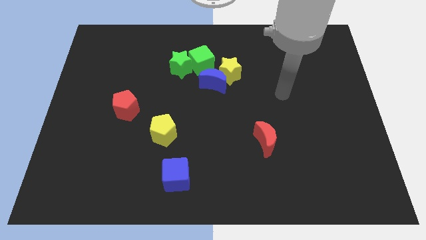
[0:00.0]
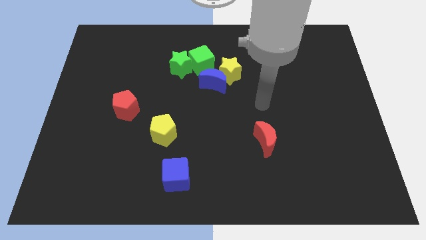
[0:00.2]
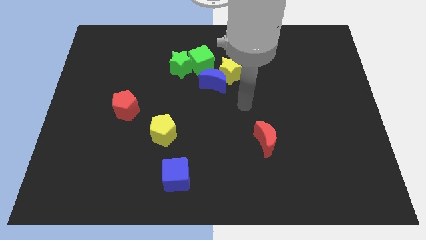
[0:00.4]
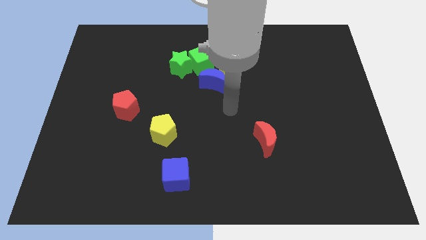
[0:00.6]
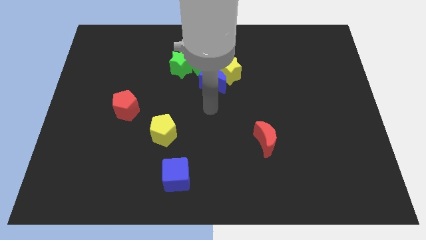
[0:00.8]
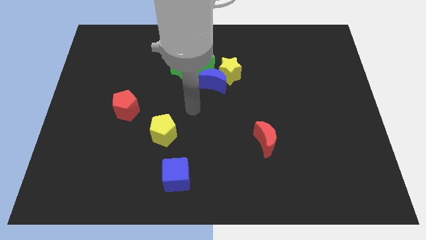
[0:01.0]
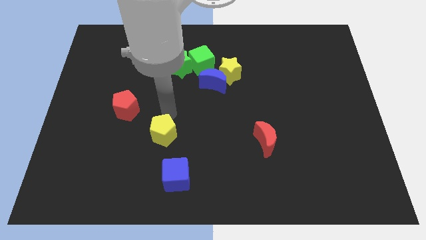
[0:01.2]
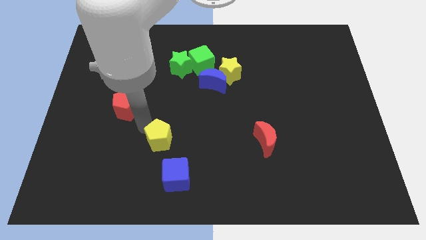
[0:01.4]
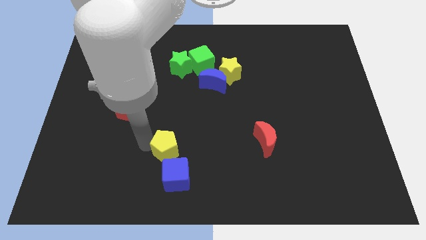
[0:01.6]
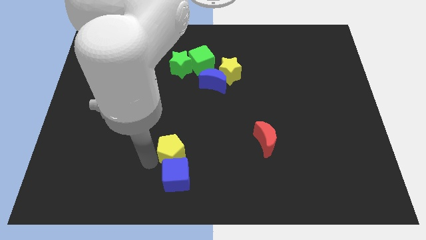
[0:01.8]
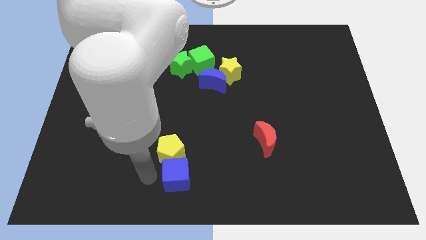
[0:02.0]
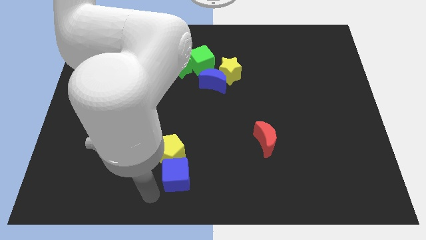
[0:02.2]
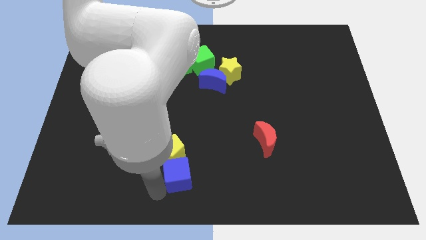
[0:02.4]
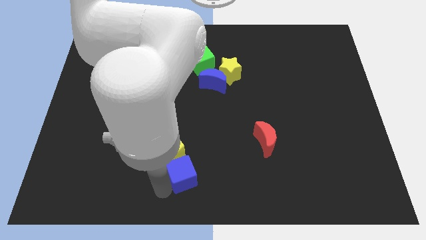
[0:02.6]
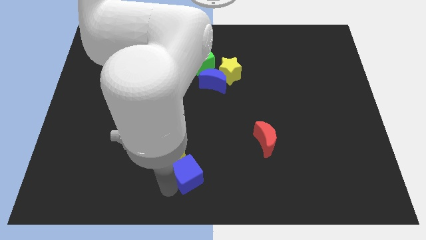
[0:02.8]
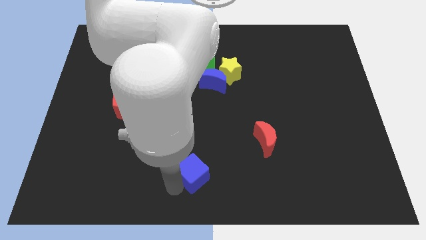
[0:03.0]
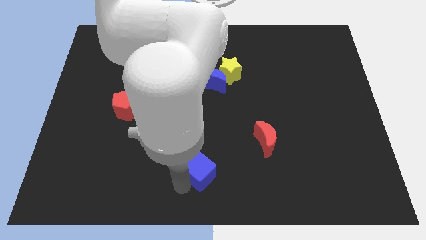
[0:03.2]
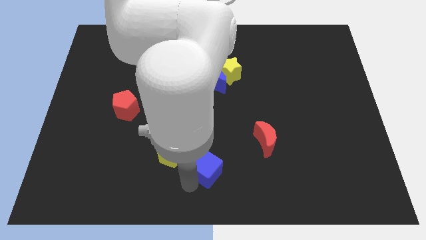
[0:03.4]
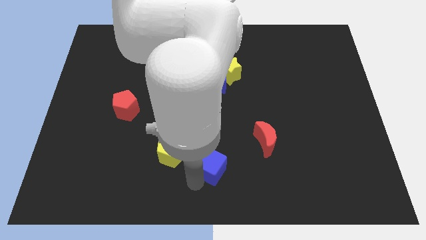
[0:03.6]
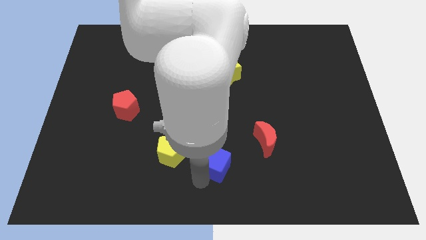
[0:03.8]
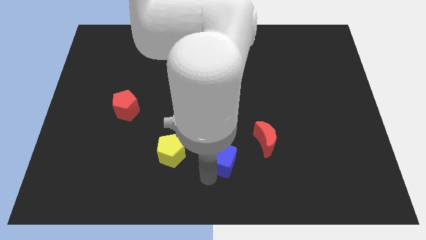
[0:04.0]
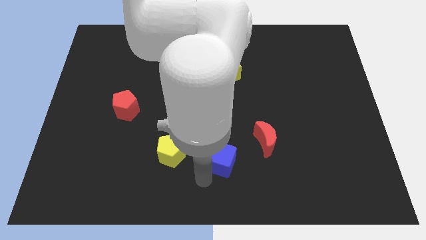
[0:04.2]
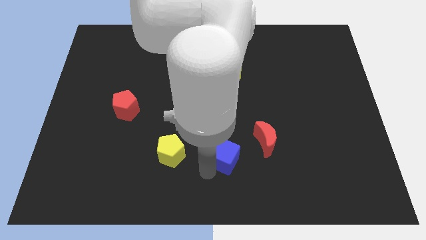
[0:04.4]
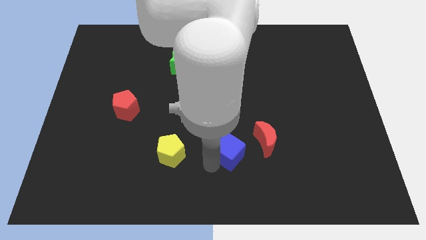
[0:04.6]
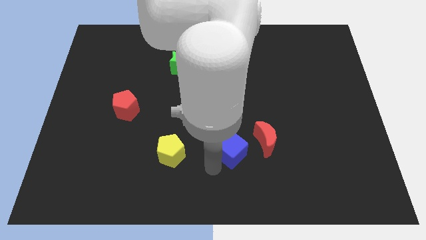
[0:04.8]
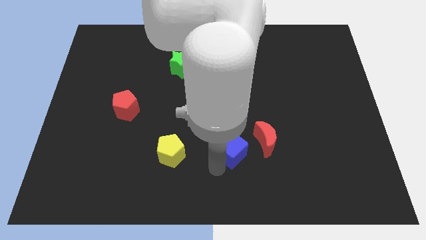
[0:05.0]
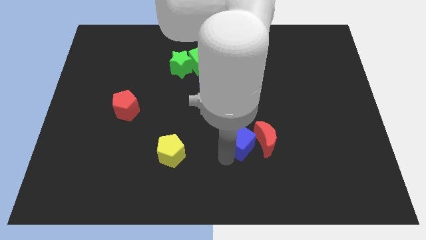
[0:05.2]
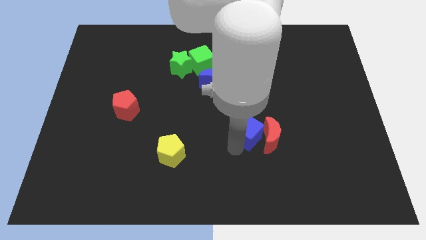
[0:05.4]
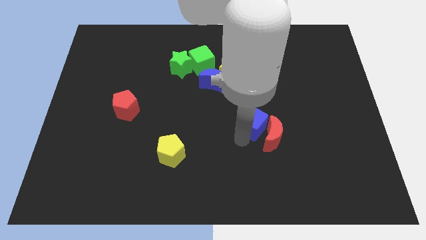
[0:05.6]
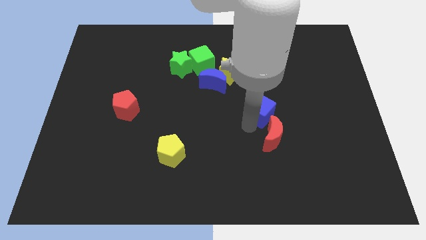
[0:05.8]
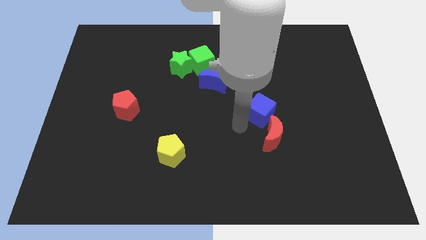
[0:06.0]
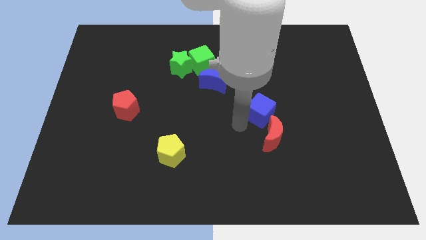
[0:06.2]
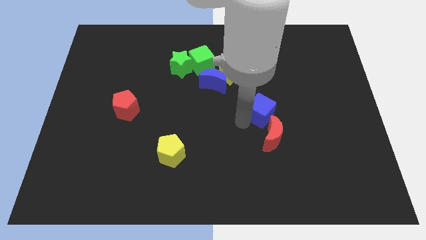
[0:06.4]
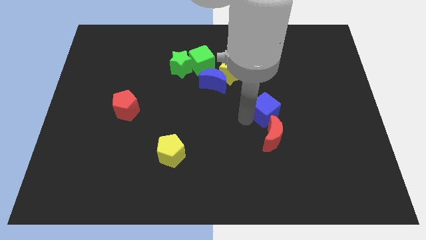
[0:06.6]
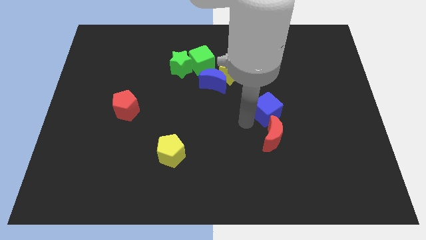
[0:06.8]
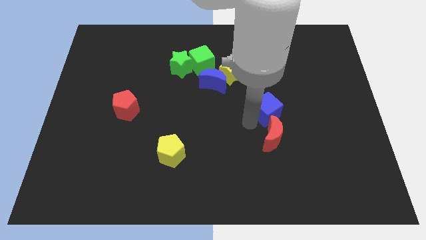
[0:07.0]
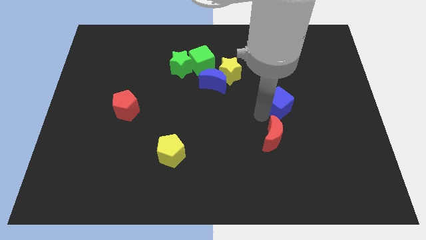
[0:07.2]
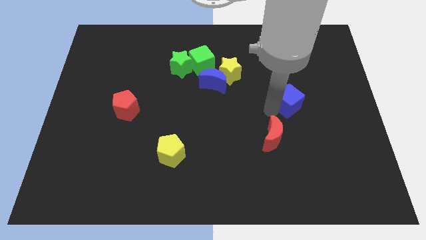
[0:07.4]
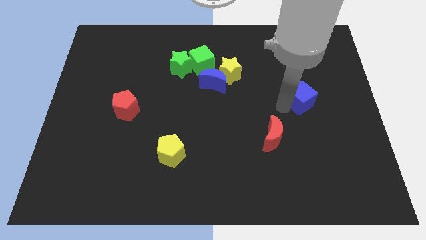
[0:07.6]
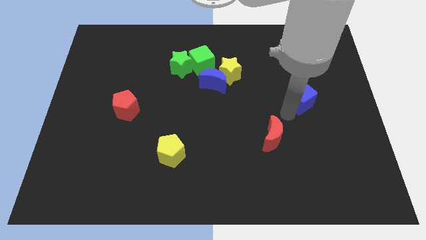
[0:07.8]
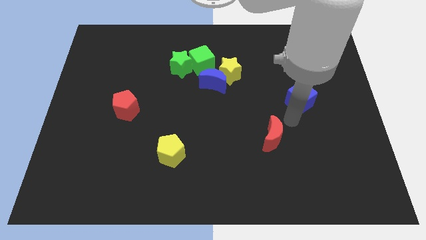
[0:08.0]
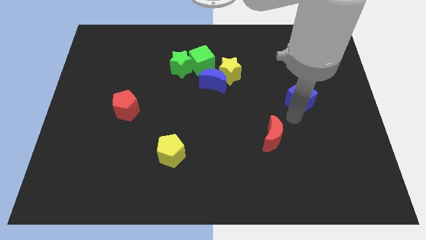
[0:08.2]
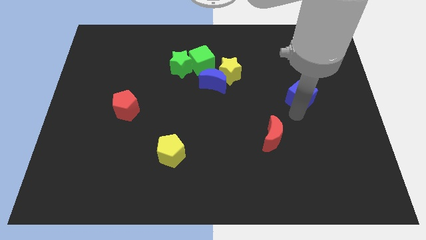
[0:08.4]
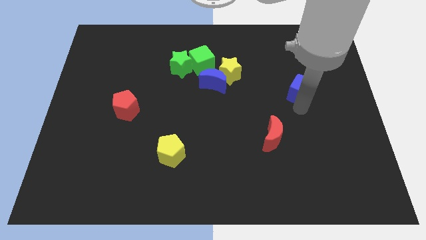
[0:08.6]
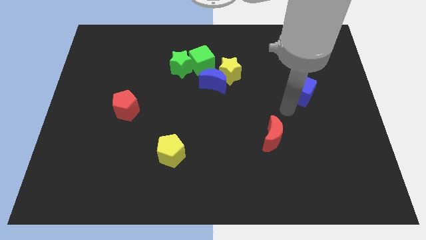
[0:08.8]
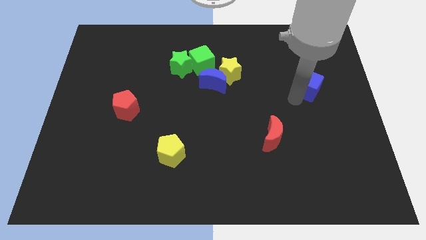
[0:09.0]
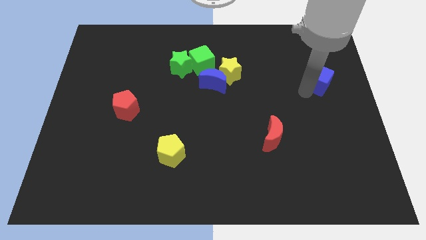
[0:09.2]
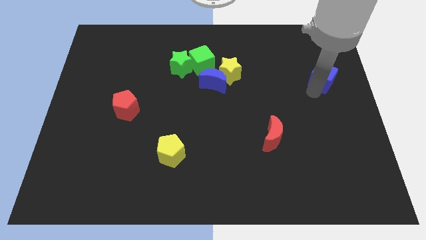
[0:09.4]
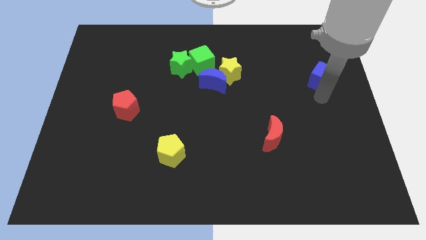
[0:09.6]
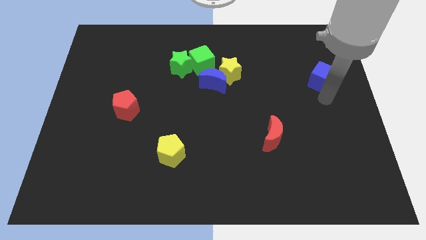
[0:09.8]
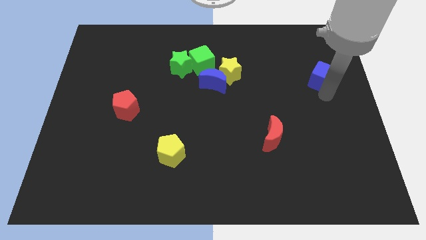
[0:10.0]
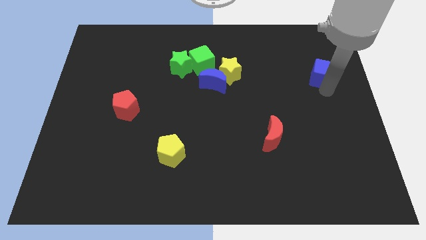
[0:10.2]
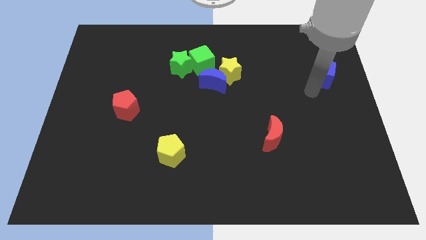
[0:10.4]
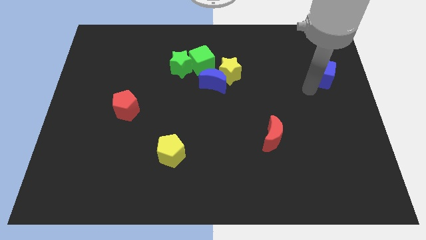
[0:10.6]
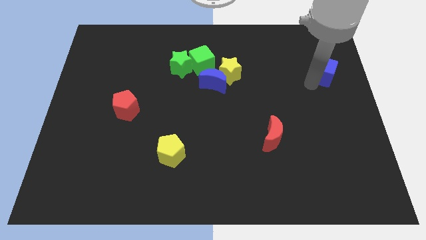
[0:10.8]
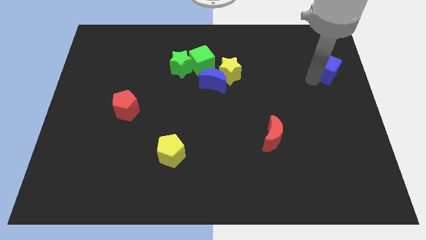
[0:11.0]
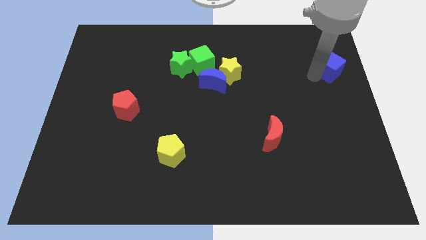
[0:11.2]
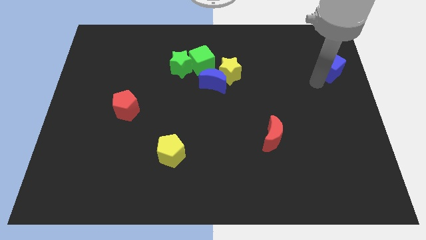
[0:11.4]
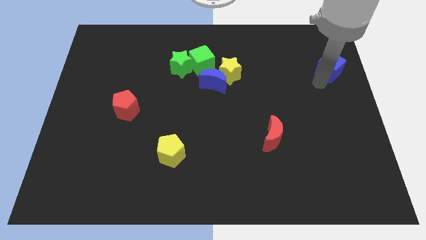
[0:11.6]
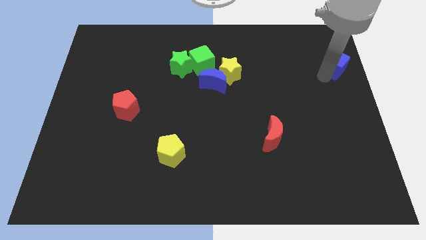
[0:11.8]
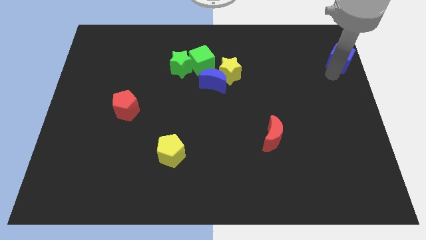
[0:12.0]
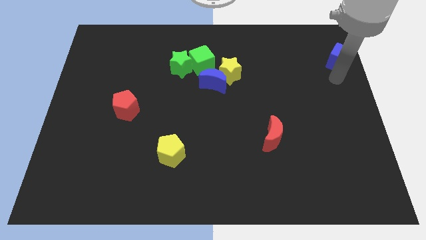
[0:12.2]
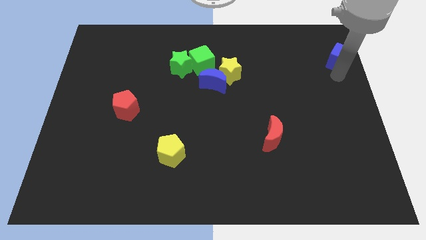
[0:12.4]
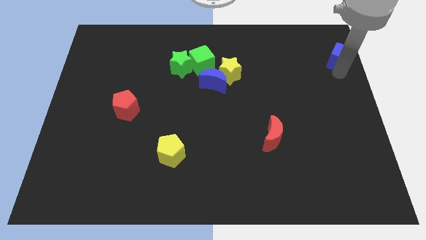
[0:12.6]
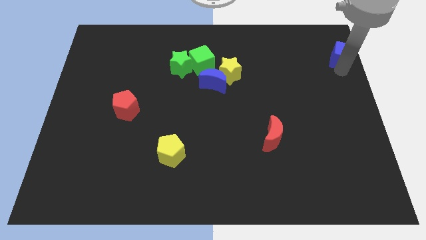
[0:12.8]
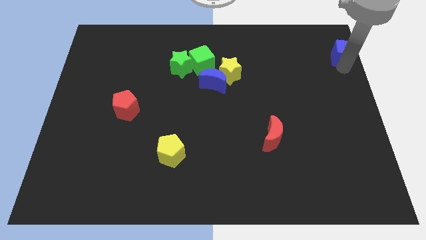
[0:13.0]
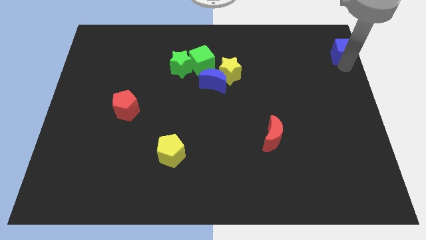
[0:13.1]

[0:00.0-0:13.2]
slide the blue cube to the upper right corner
